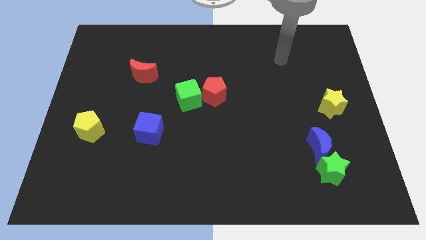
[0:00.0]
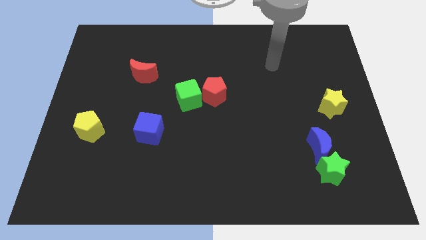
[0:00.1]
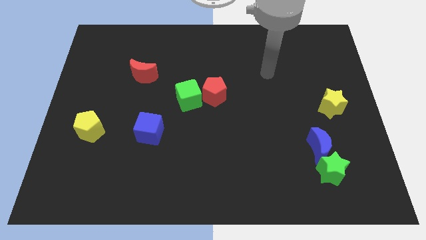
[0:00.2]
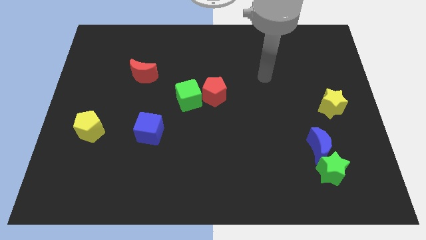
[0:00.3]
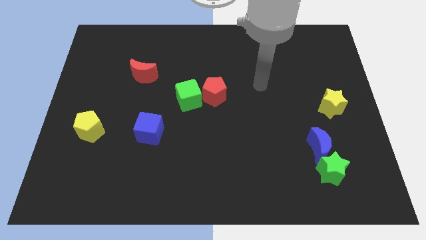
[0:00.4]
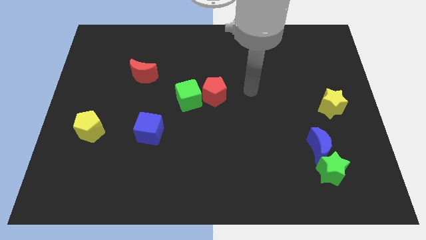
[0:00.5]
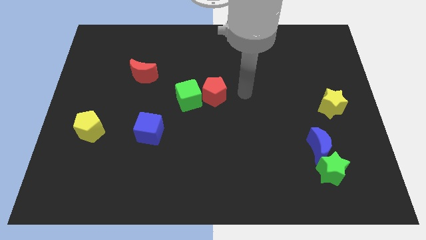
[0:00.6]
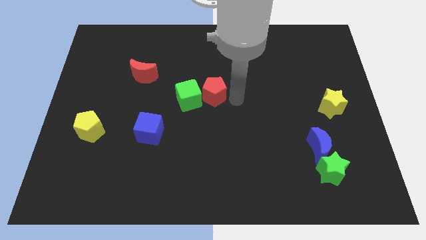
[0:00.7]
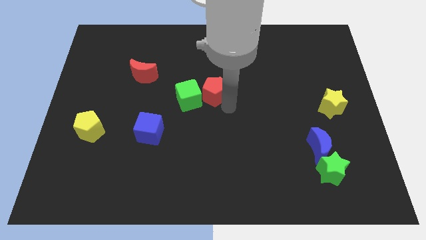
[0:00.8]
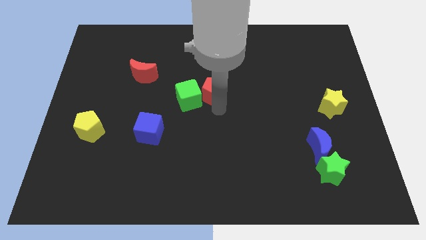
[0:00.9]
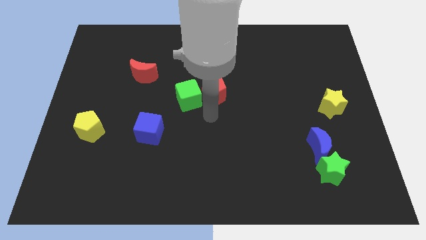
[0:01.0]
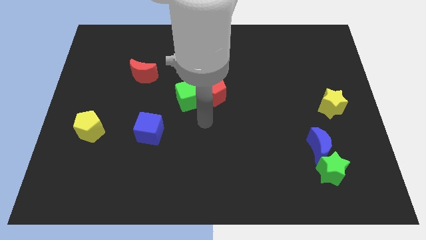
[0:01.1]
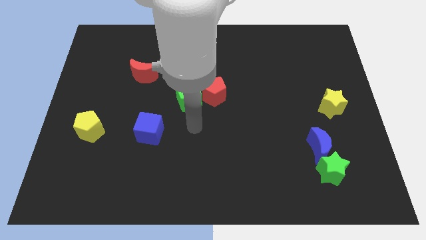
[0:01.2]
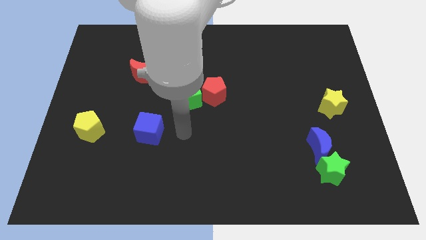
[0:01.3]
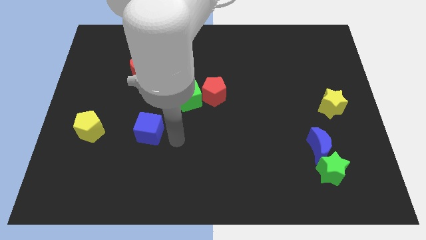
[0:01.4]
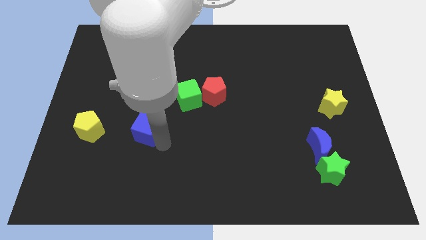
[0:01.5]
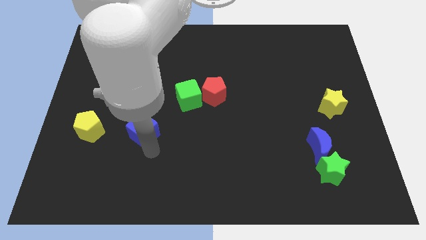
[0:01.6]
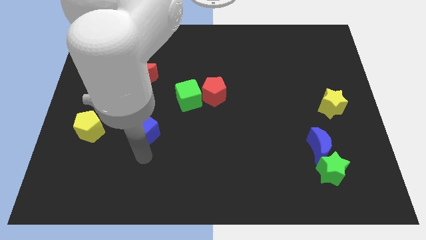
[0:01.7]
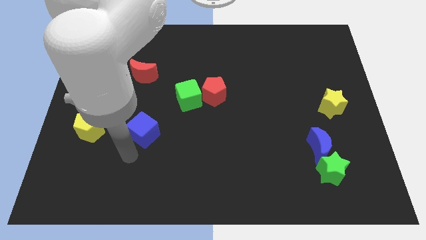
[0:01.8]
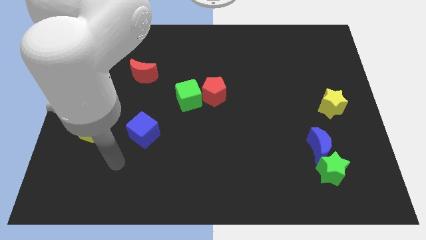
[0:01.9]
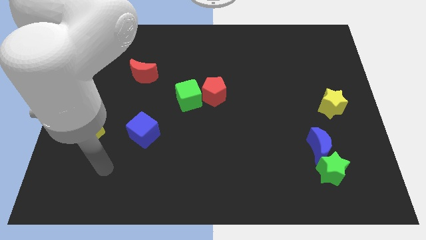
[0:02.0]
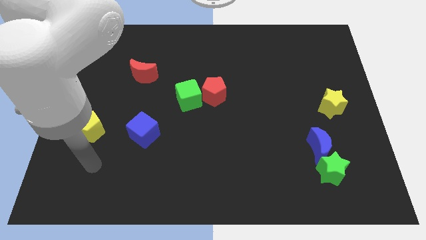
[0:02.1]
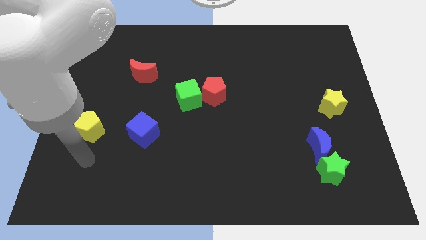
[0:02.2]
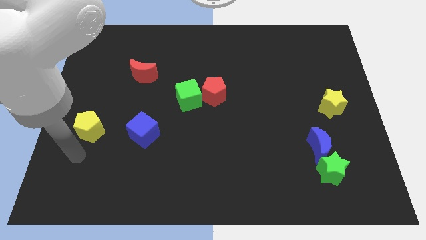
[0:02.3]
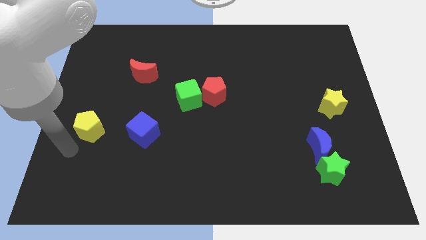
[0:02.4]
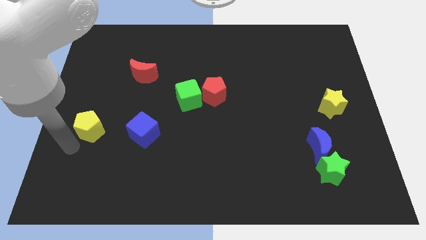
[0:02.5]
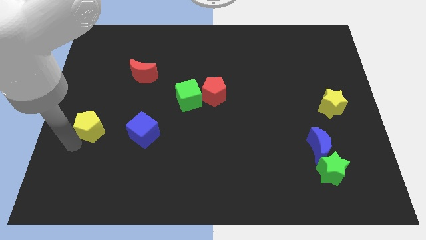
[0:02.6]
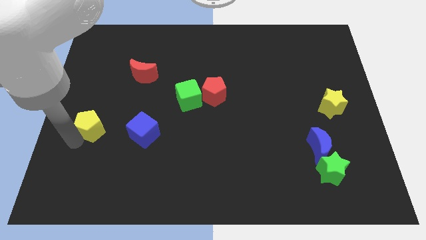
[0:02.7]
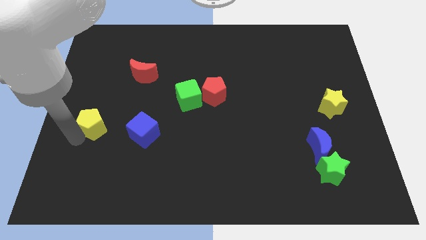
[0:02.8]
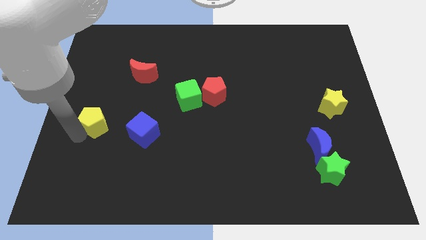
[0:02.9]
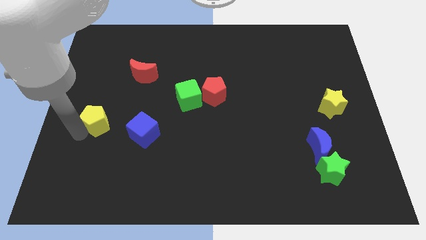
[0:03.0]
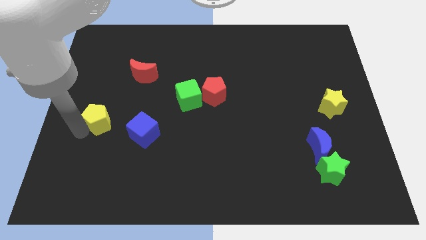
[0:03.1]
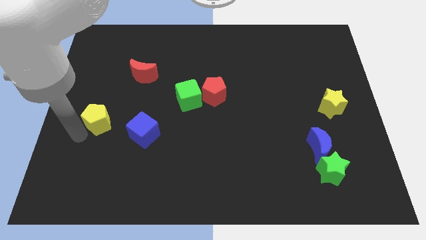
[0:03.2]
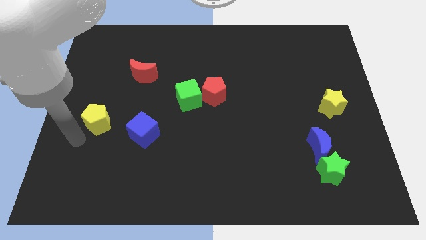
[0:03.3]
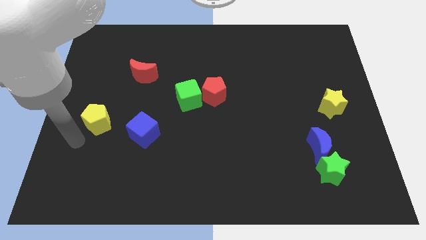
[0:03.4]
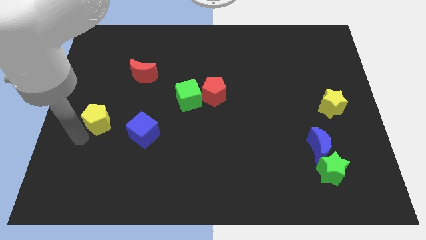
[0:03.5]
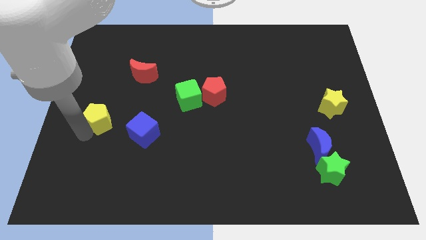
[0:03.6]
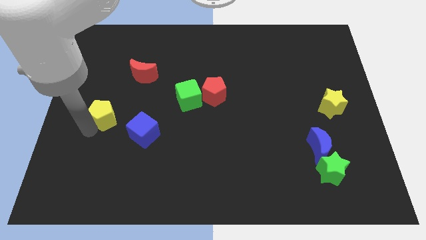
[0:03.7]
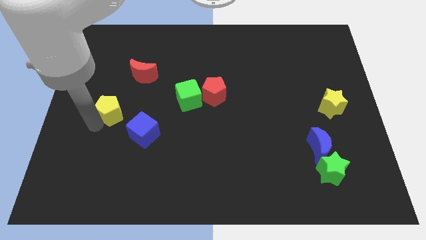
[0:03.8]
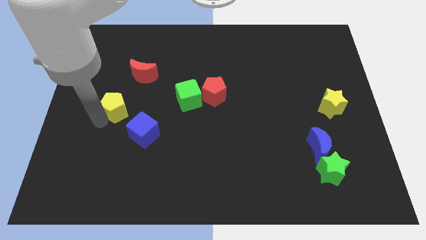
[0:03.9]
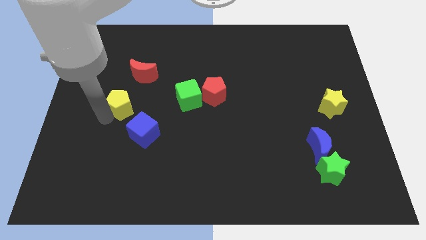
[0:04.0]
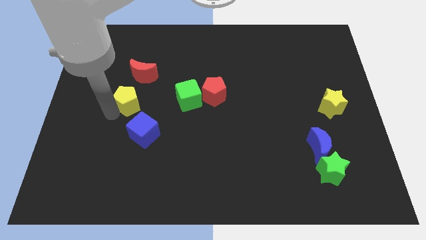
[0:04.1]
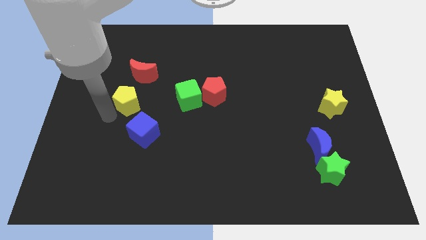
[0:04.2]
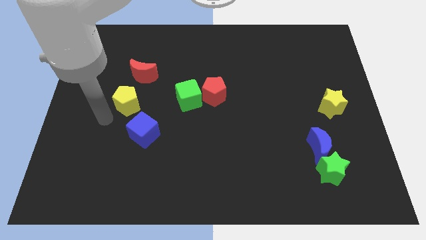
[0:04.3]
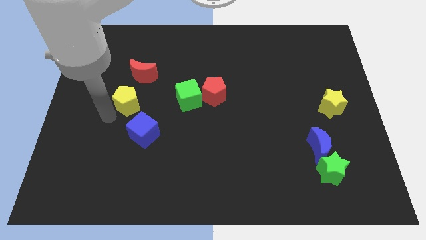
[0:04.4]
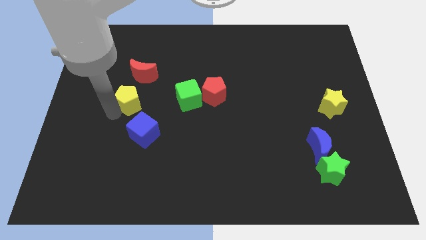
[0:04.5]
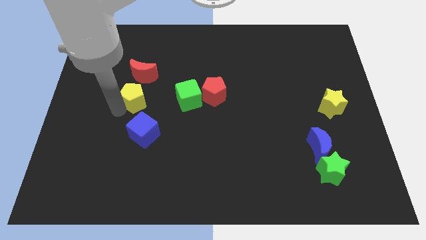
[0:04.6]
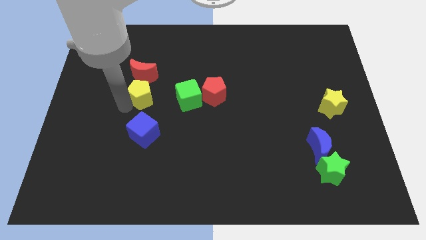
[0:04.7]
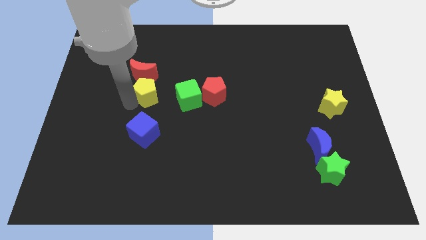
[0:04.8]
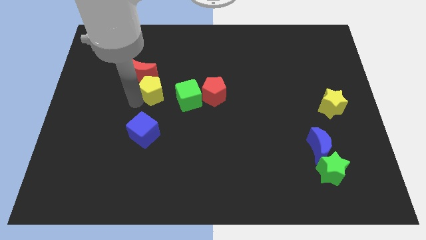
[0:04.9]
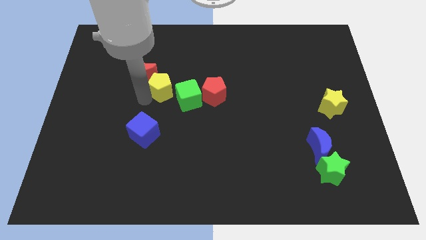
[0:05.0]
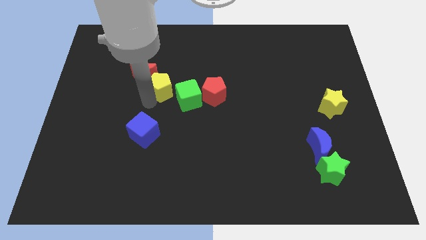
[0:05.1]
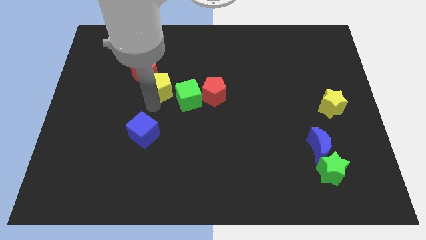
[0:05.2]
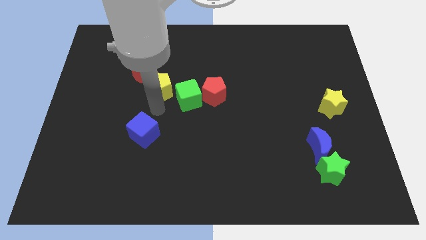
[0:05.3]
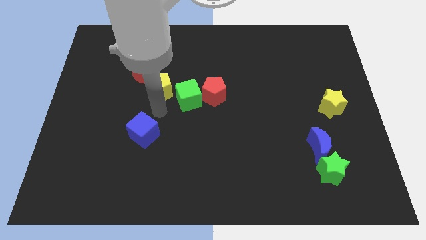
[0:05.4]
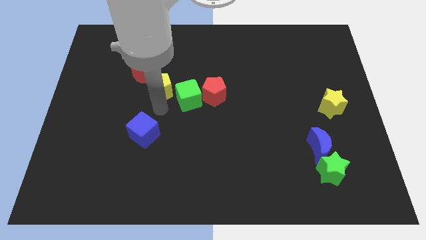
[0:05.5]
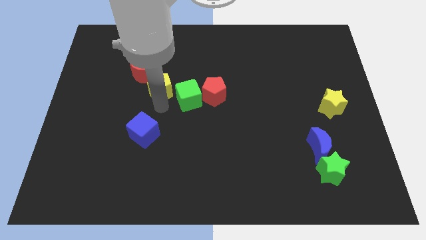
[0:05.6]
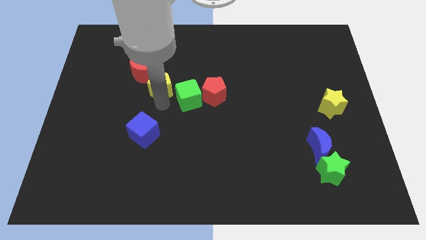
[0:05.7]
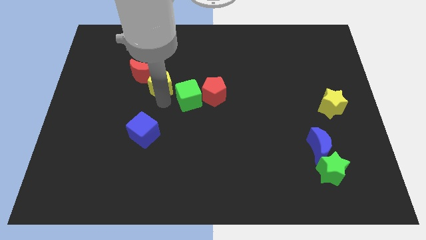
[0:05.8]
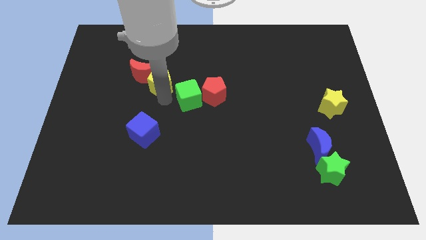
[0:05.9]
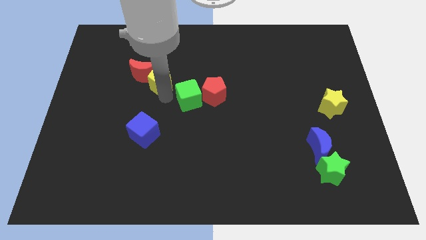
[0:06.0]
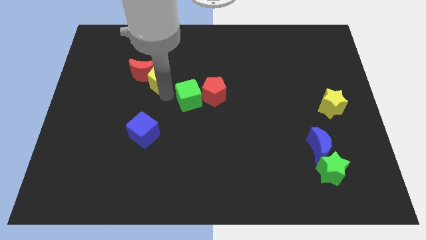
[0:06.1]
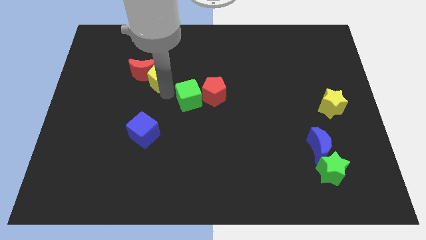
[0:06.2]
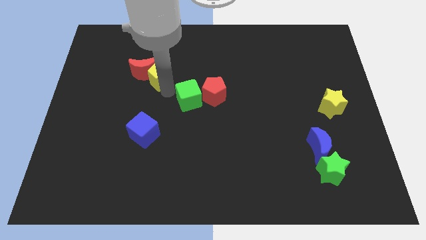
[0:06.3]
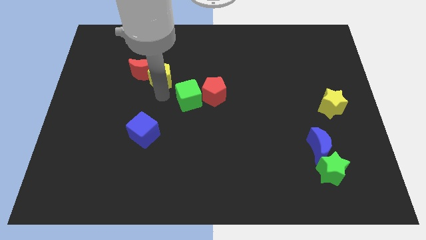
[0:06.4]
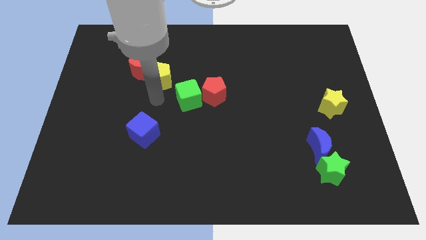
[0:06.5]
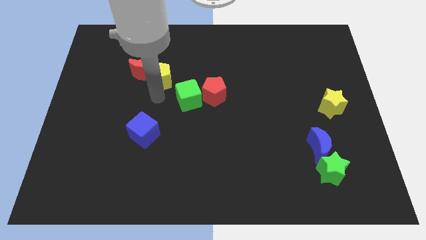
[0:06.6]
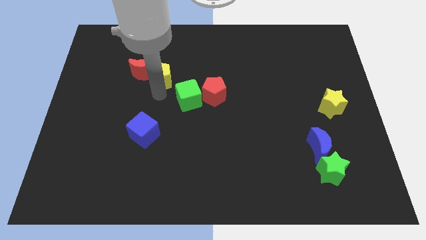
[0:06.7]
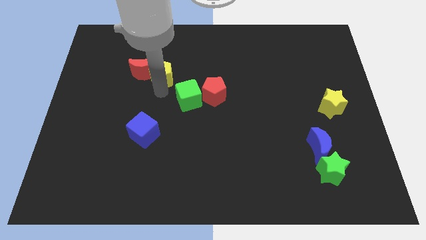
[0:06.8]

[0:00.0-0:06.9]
put the yellow pentagon diagonally up and to the right of the red moon

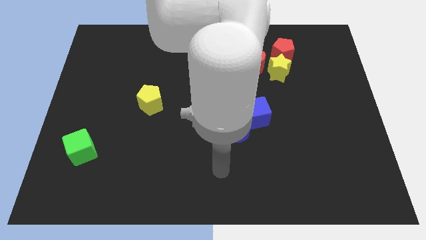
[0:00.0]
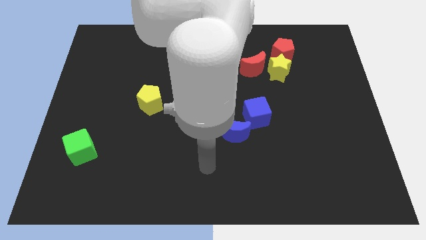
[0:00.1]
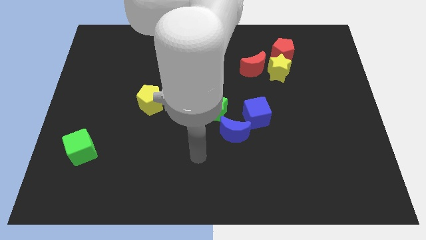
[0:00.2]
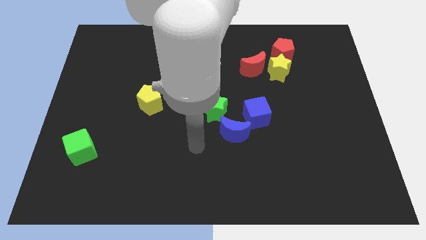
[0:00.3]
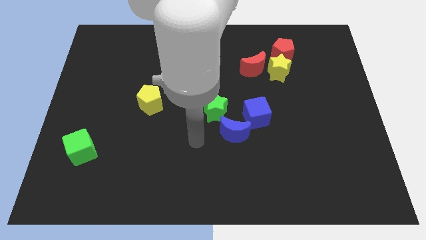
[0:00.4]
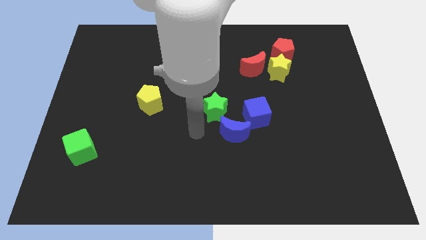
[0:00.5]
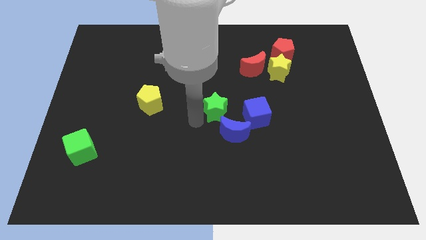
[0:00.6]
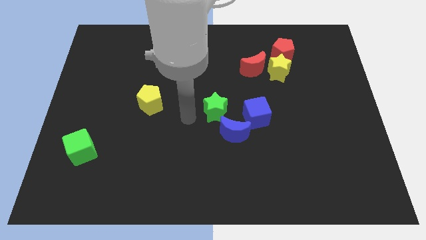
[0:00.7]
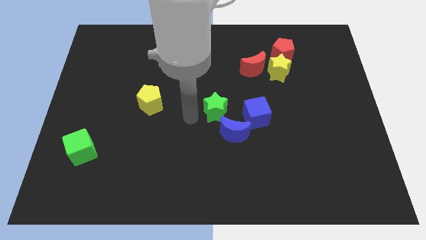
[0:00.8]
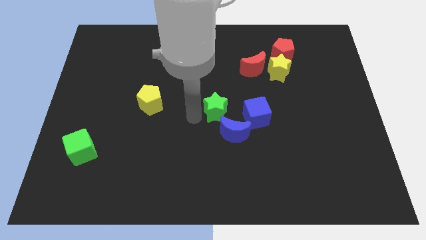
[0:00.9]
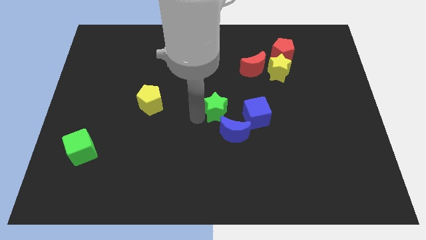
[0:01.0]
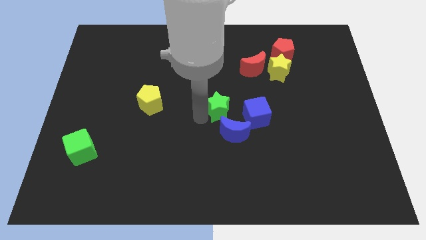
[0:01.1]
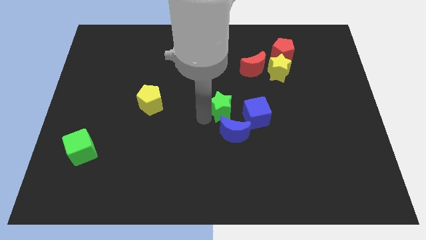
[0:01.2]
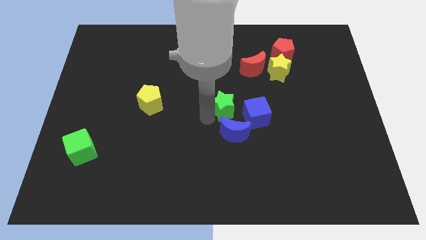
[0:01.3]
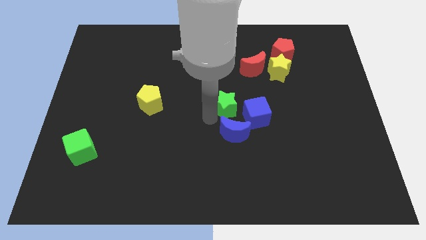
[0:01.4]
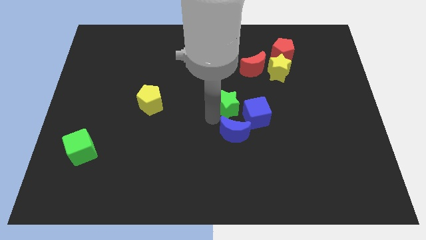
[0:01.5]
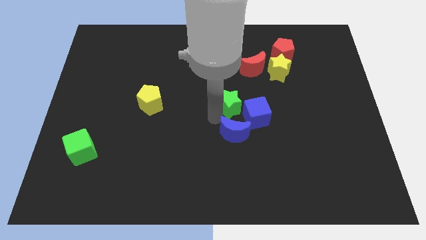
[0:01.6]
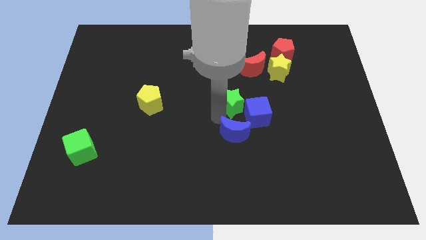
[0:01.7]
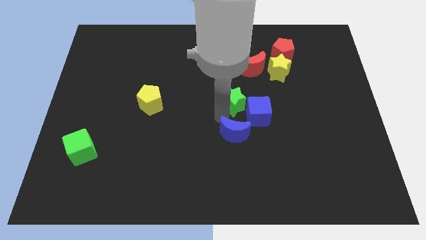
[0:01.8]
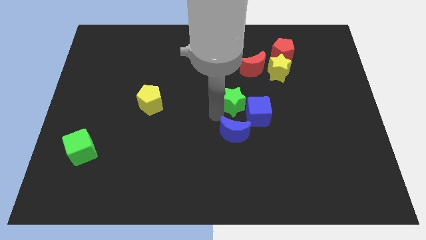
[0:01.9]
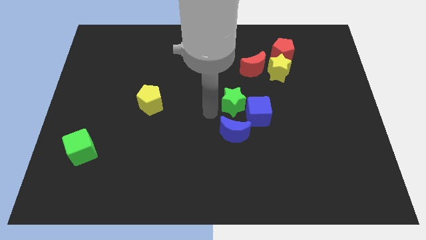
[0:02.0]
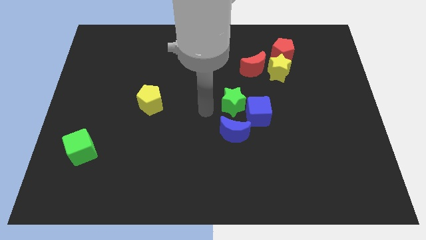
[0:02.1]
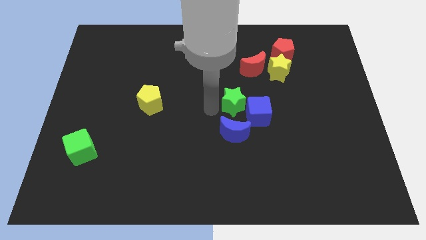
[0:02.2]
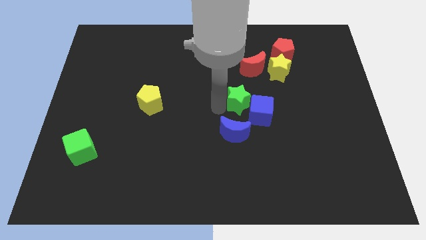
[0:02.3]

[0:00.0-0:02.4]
put the green star to the bottom of the red moon
